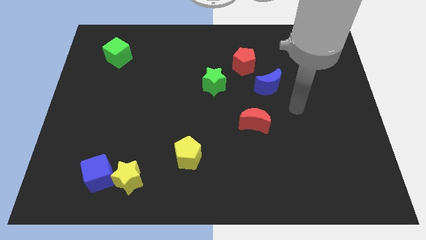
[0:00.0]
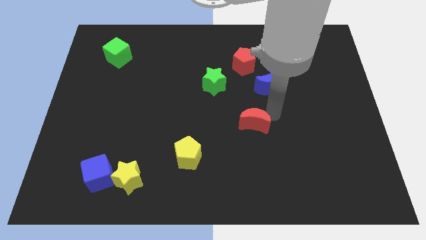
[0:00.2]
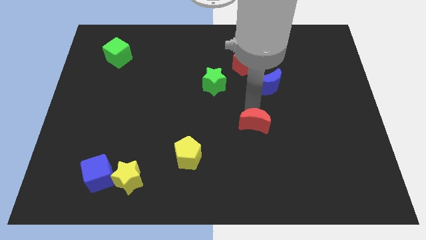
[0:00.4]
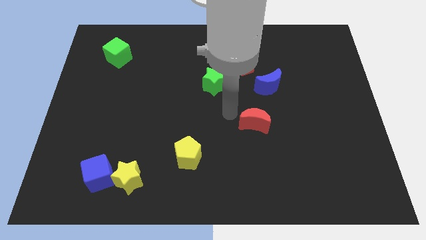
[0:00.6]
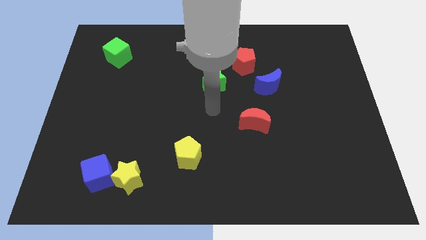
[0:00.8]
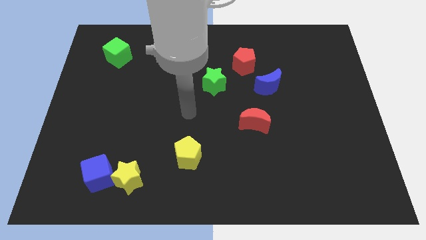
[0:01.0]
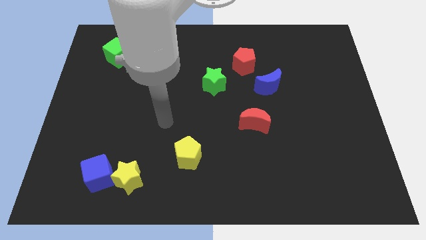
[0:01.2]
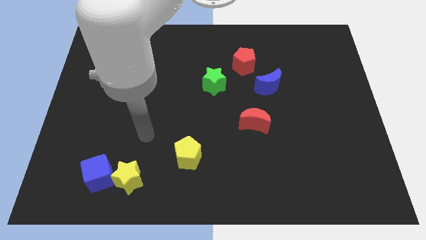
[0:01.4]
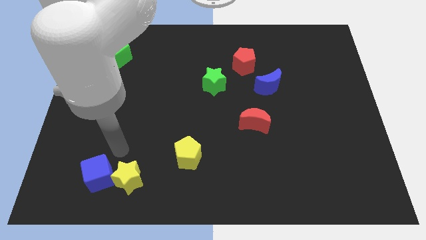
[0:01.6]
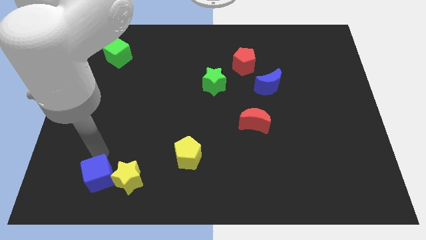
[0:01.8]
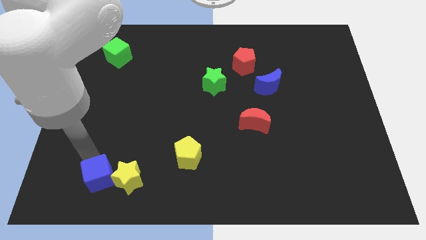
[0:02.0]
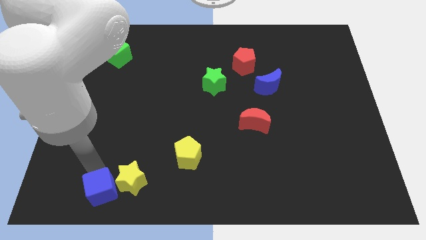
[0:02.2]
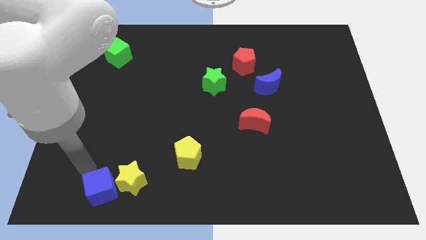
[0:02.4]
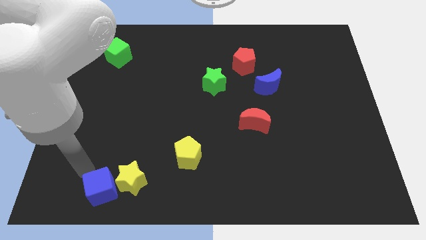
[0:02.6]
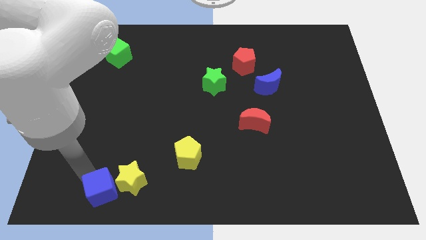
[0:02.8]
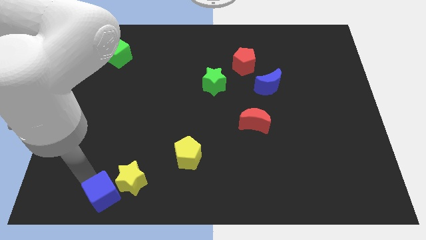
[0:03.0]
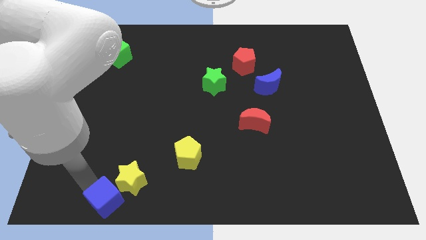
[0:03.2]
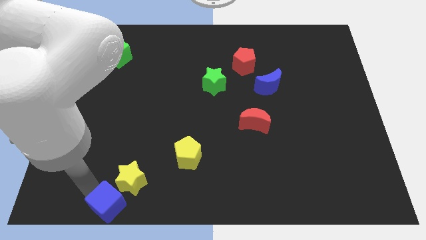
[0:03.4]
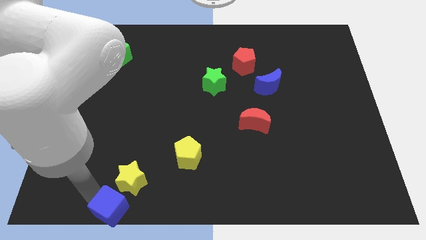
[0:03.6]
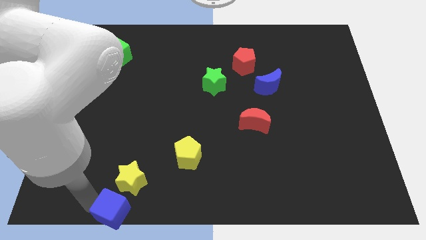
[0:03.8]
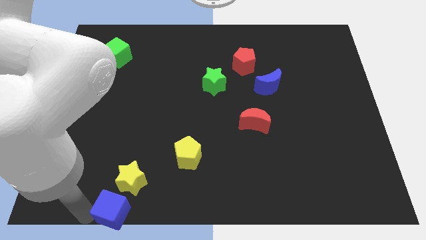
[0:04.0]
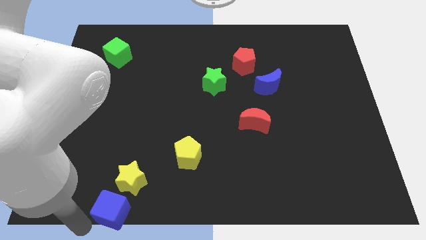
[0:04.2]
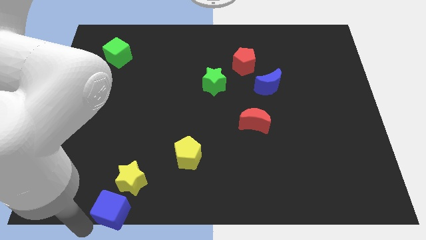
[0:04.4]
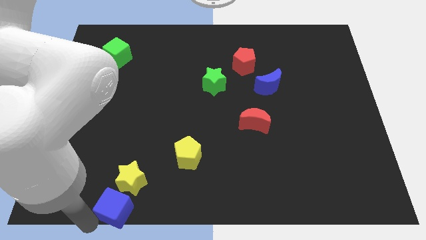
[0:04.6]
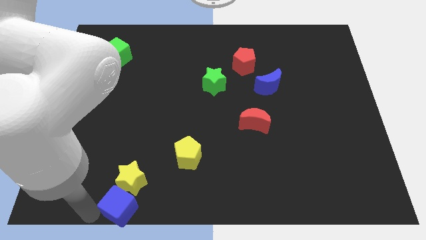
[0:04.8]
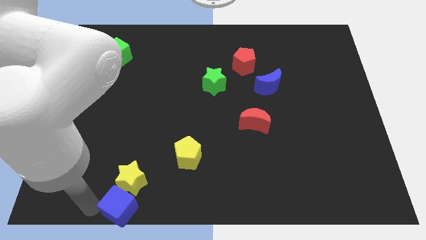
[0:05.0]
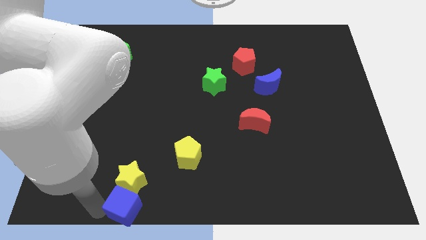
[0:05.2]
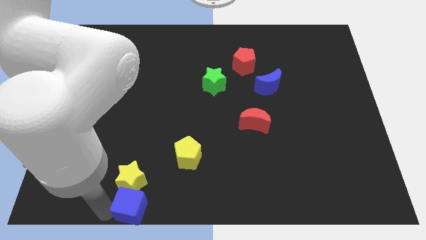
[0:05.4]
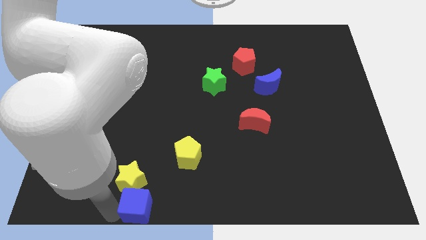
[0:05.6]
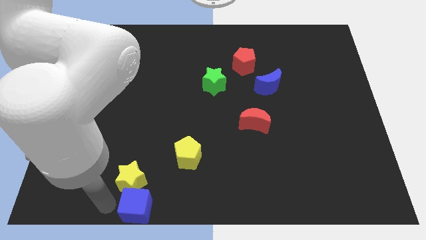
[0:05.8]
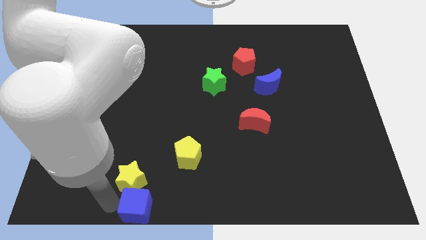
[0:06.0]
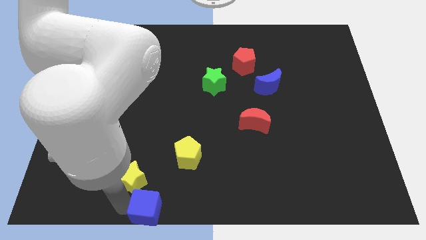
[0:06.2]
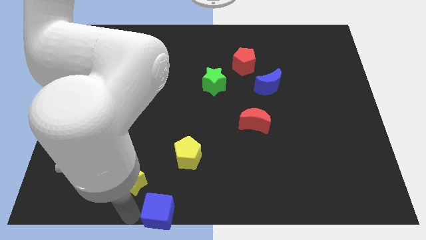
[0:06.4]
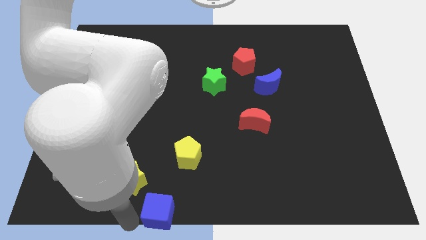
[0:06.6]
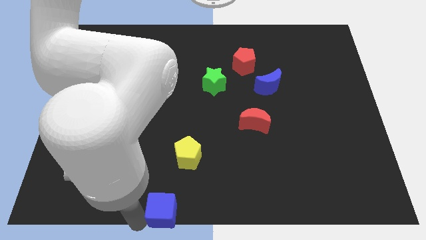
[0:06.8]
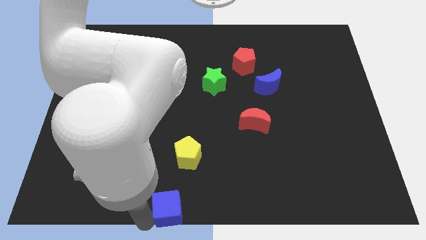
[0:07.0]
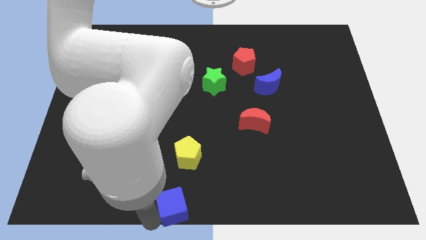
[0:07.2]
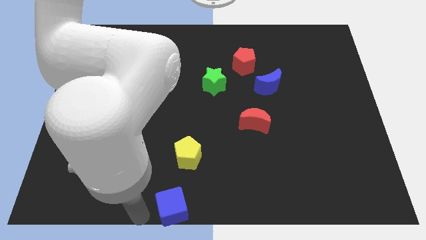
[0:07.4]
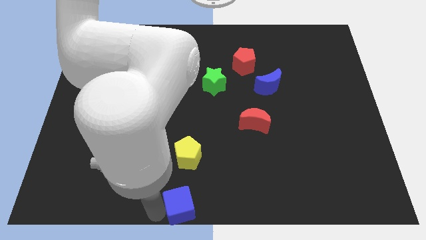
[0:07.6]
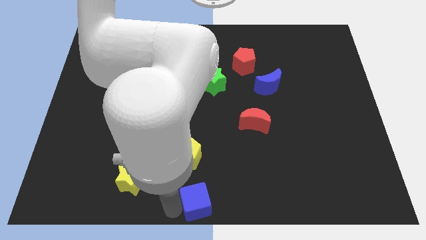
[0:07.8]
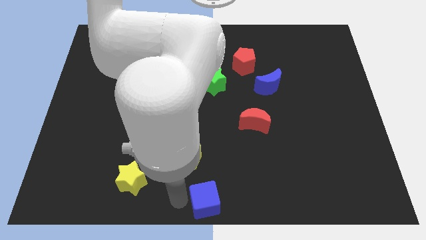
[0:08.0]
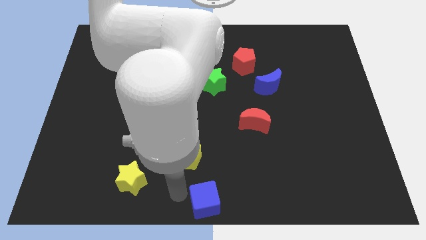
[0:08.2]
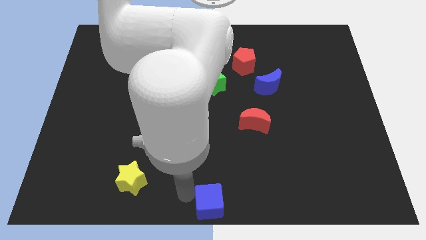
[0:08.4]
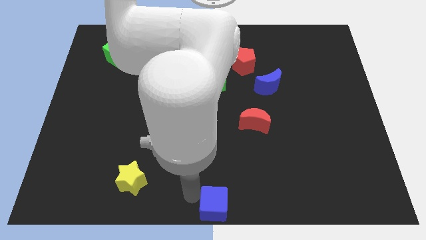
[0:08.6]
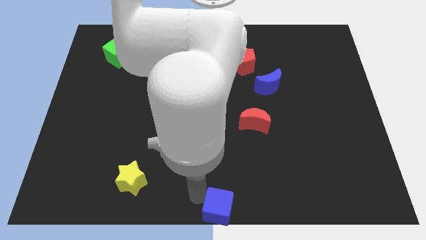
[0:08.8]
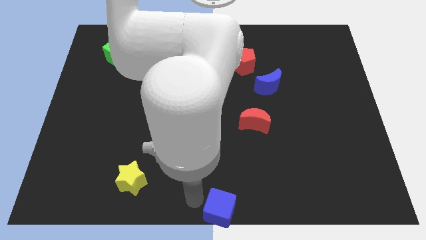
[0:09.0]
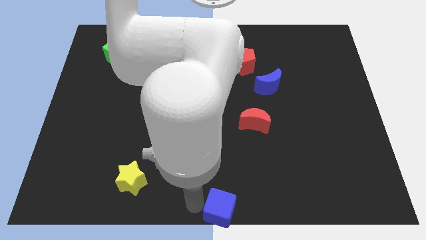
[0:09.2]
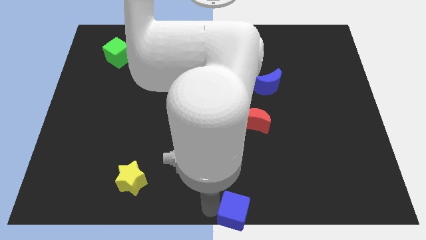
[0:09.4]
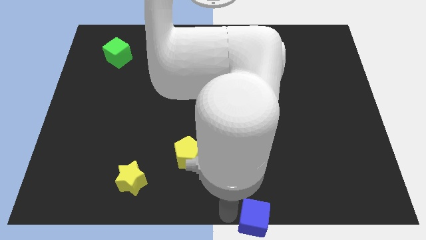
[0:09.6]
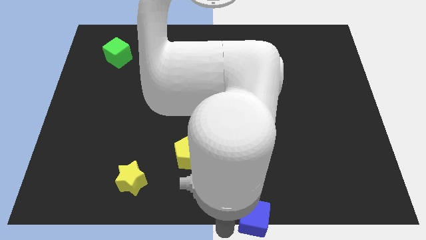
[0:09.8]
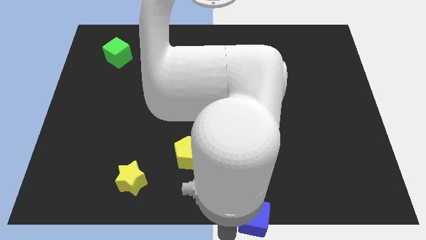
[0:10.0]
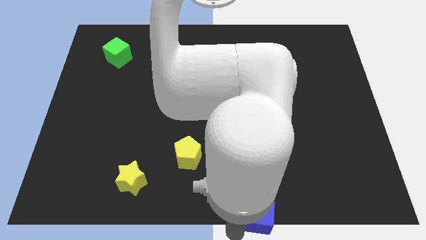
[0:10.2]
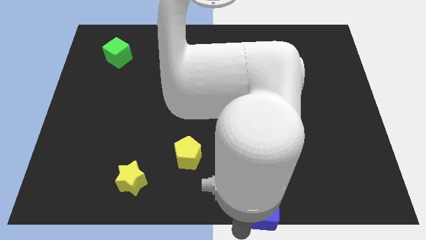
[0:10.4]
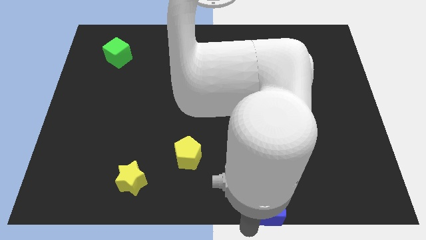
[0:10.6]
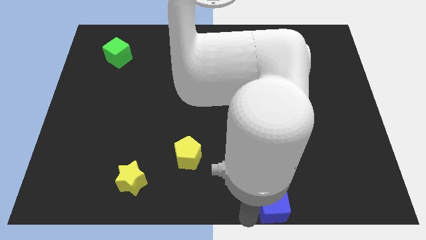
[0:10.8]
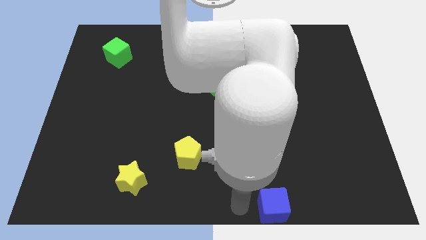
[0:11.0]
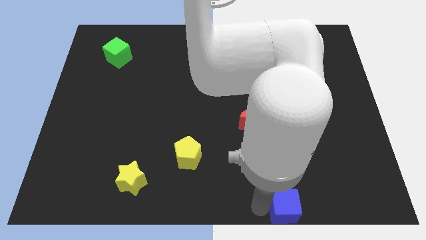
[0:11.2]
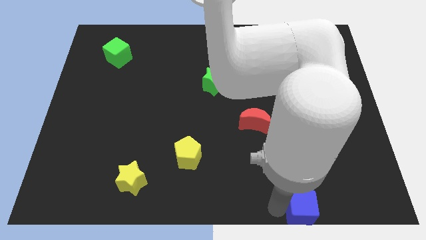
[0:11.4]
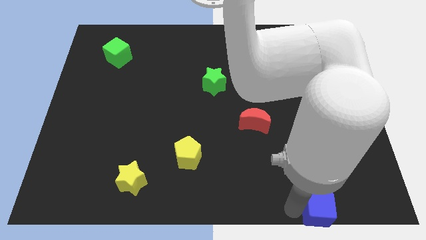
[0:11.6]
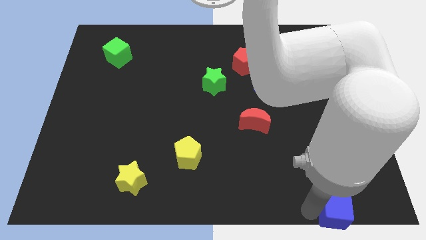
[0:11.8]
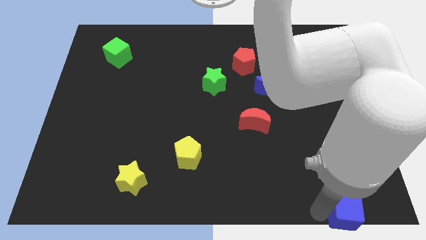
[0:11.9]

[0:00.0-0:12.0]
put the blue cube to the bottom right corner
